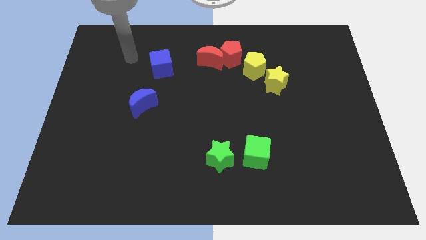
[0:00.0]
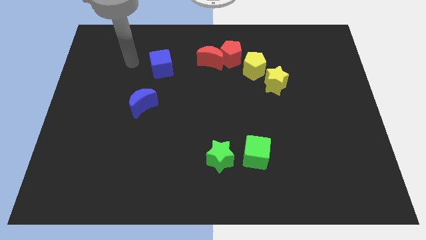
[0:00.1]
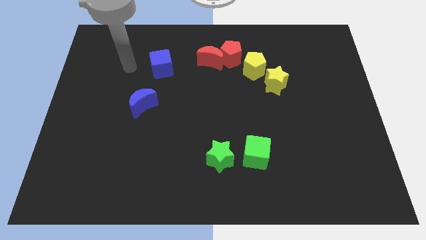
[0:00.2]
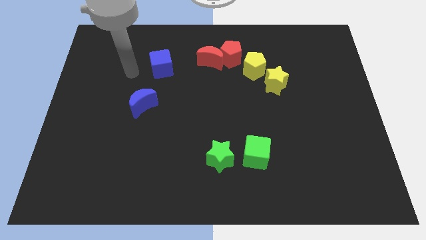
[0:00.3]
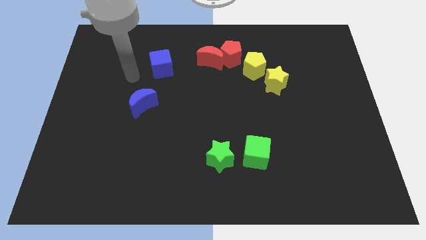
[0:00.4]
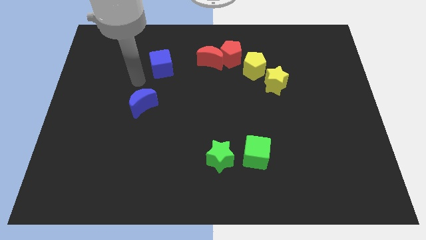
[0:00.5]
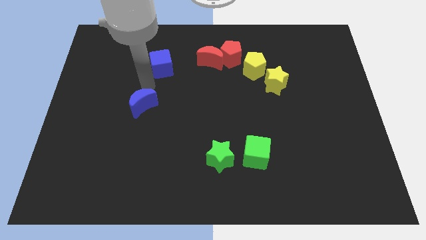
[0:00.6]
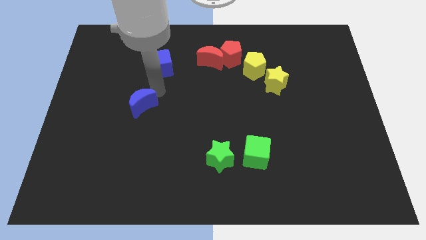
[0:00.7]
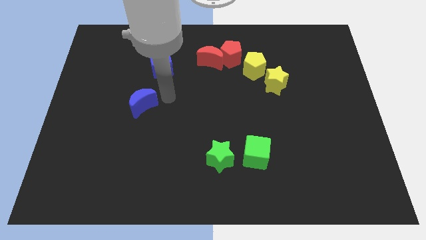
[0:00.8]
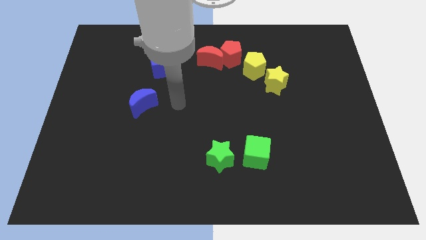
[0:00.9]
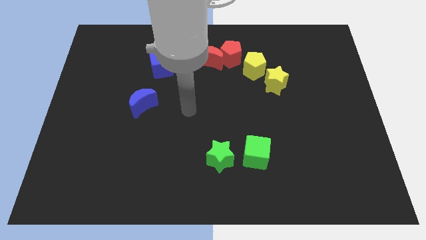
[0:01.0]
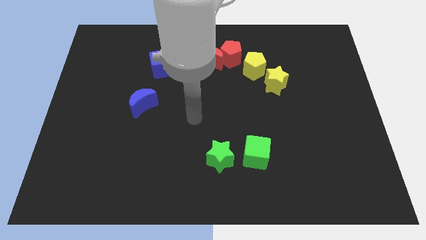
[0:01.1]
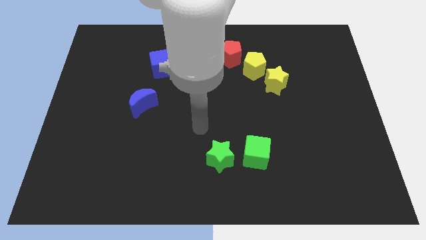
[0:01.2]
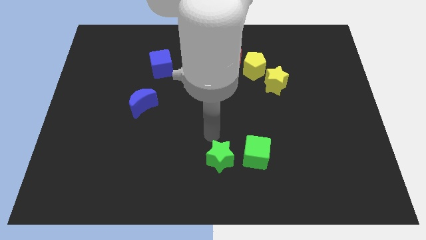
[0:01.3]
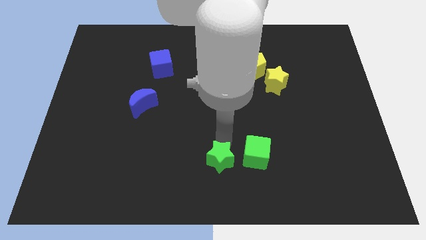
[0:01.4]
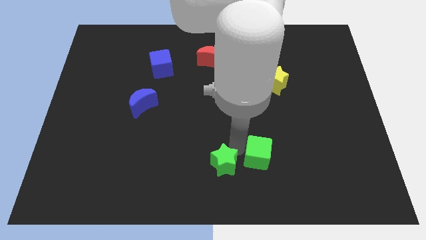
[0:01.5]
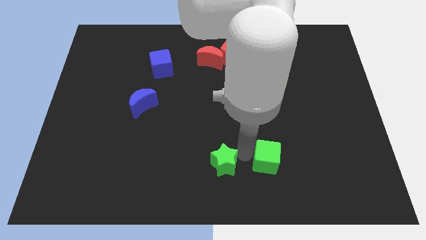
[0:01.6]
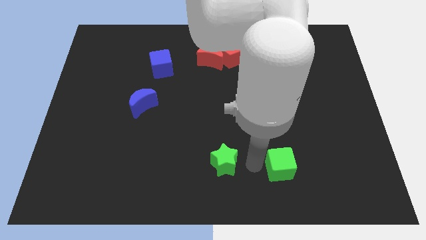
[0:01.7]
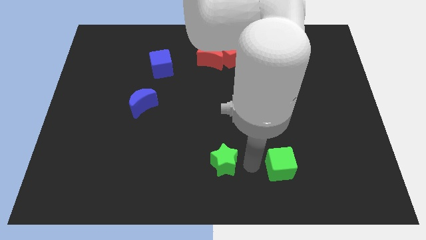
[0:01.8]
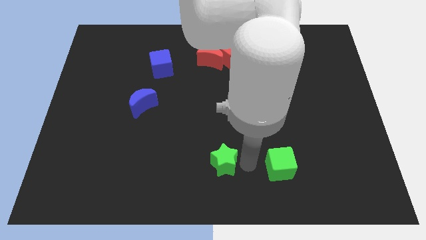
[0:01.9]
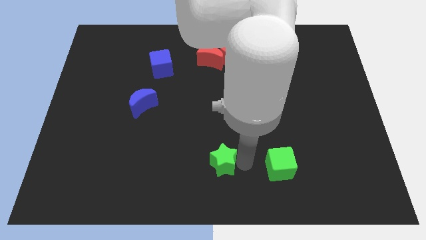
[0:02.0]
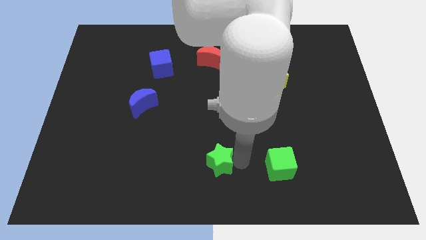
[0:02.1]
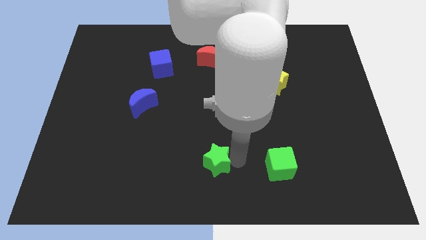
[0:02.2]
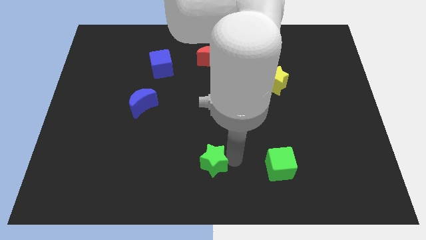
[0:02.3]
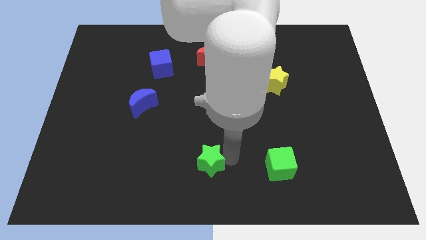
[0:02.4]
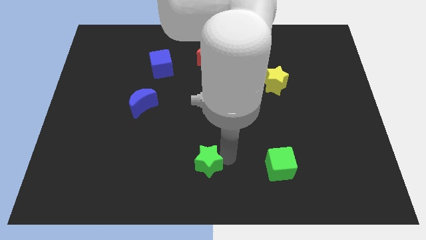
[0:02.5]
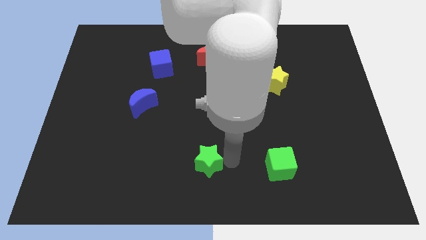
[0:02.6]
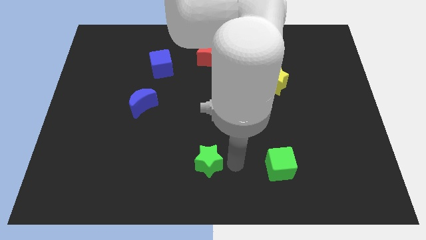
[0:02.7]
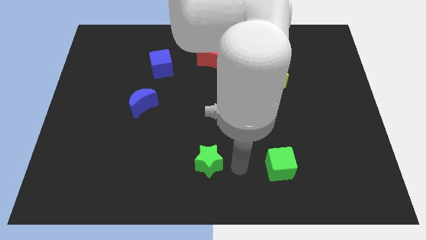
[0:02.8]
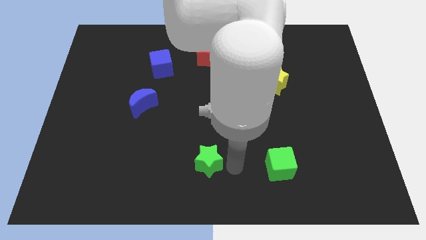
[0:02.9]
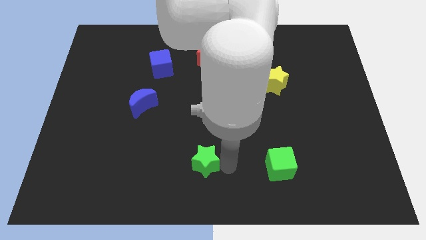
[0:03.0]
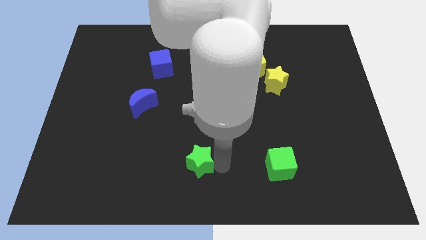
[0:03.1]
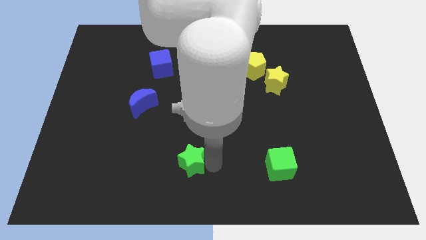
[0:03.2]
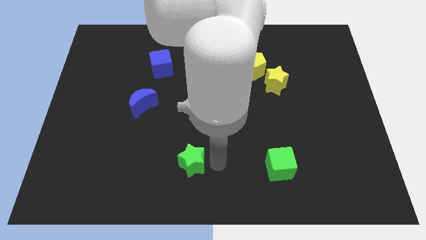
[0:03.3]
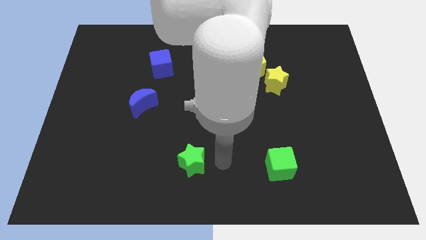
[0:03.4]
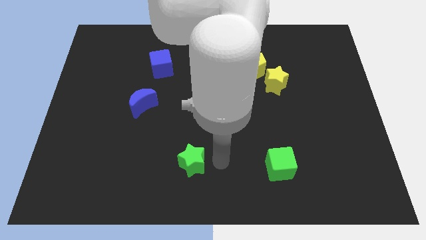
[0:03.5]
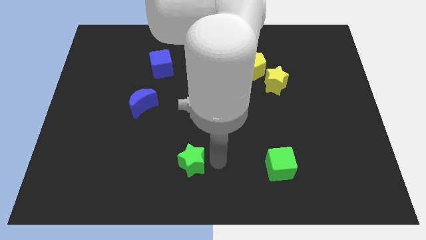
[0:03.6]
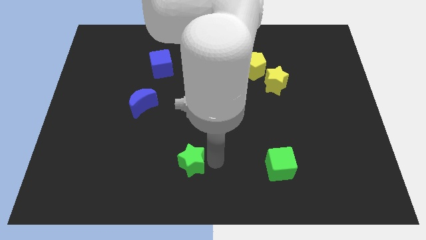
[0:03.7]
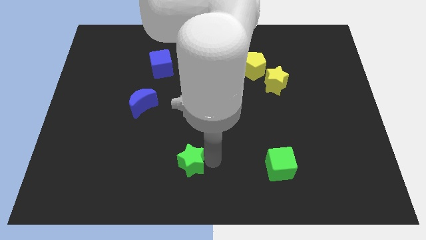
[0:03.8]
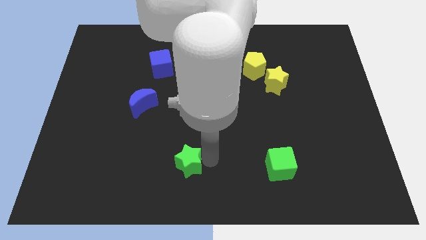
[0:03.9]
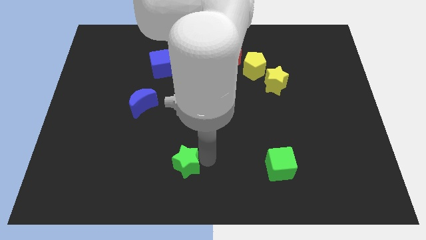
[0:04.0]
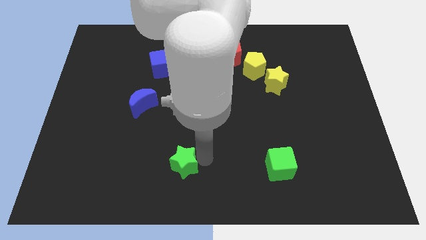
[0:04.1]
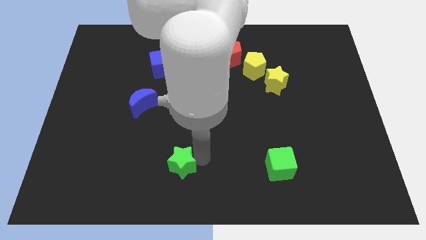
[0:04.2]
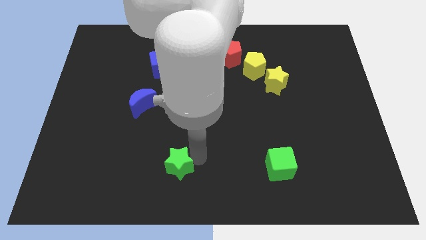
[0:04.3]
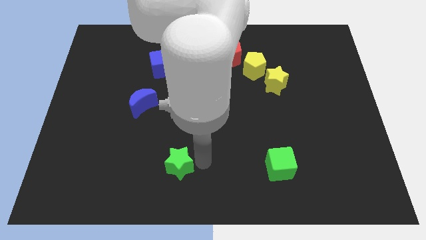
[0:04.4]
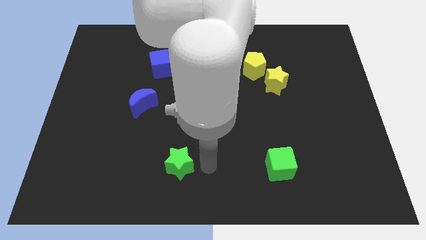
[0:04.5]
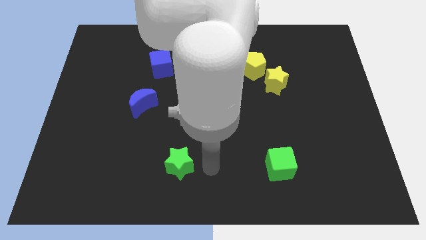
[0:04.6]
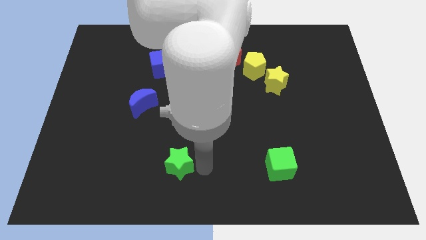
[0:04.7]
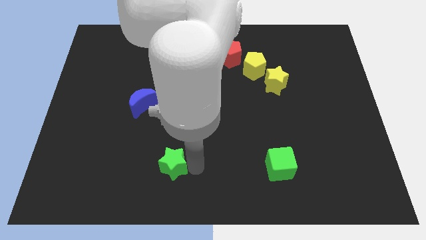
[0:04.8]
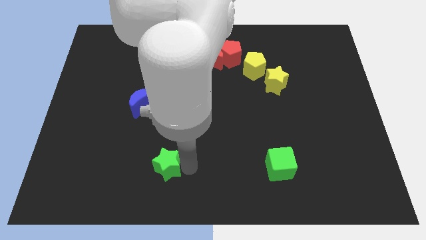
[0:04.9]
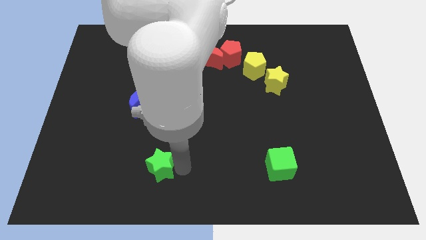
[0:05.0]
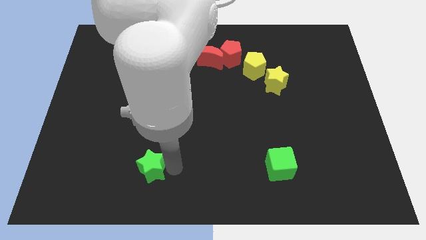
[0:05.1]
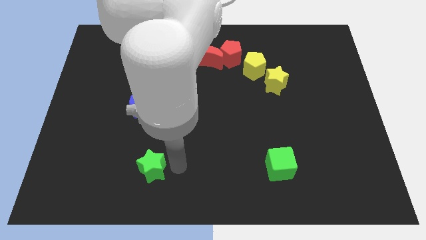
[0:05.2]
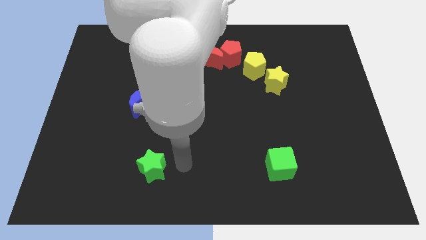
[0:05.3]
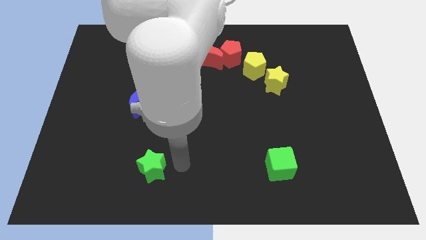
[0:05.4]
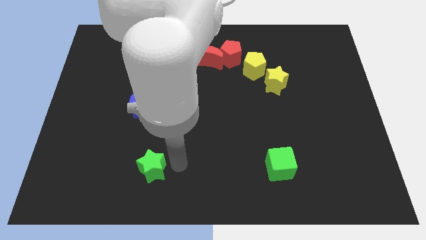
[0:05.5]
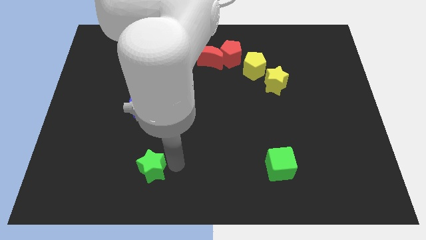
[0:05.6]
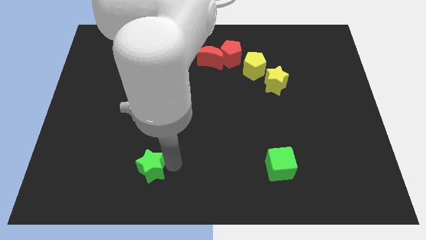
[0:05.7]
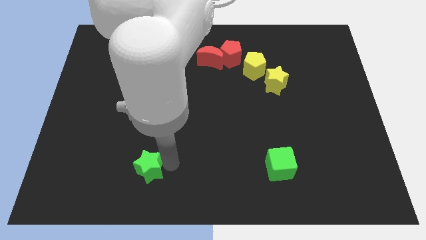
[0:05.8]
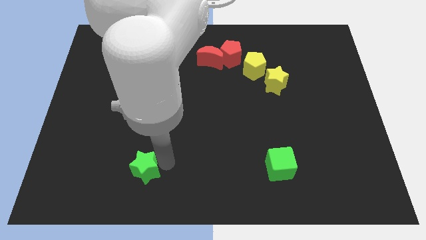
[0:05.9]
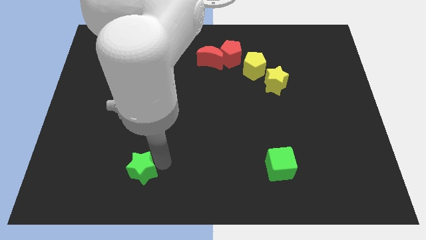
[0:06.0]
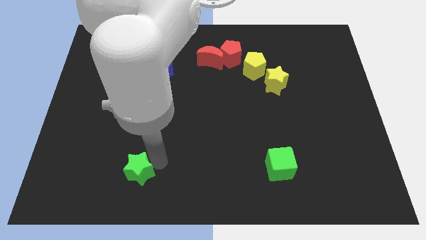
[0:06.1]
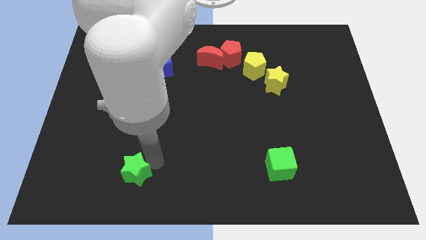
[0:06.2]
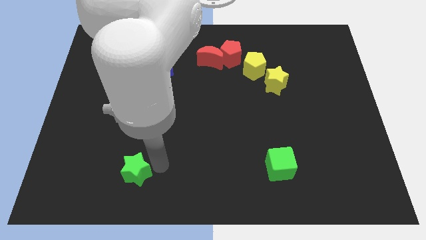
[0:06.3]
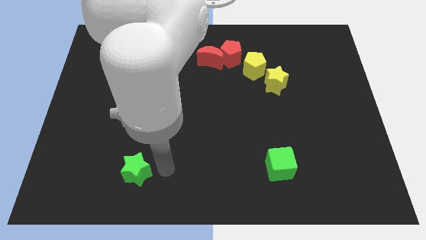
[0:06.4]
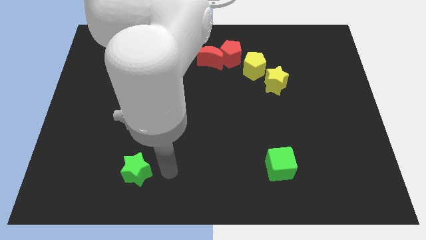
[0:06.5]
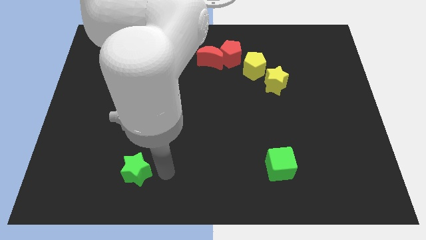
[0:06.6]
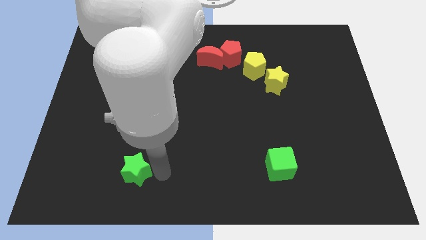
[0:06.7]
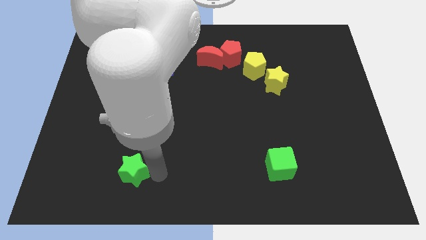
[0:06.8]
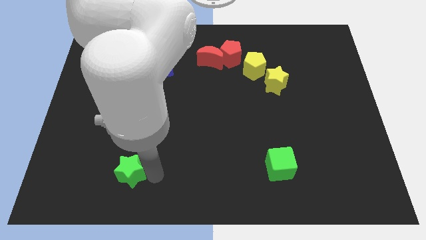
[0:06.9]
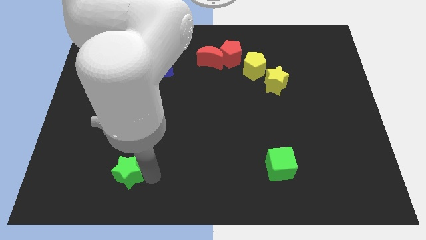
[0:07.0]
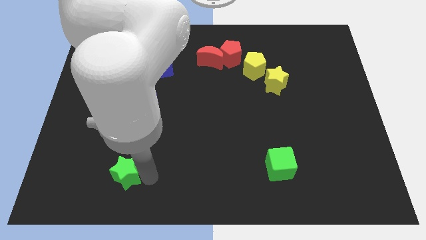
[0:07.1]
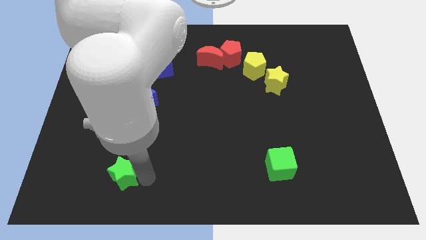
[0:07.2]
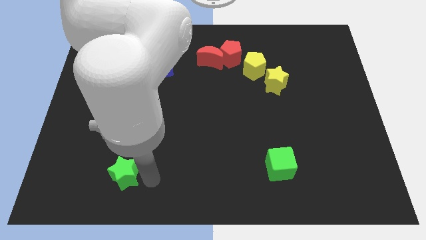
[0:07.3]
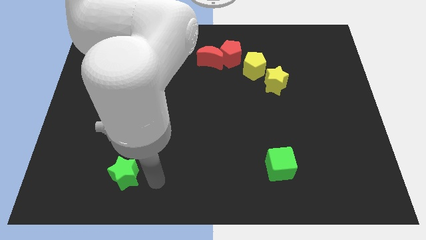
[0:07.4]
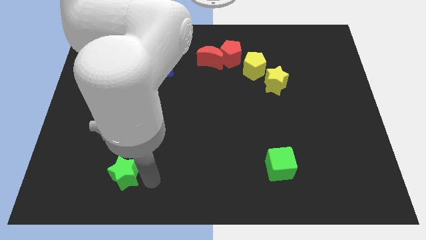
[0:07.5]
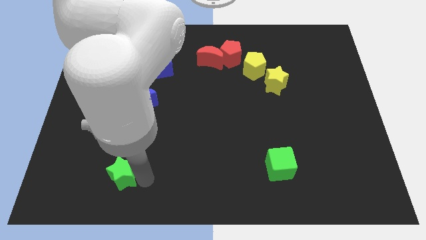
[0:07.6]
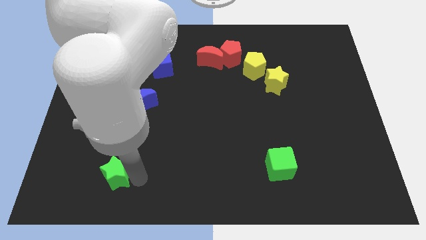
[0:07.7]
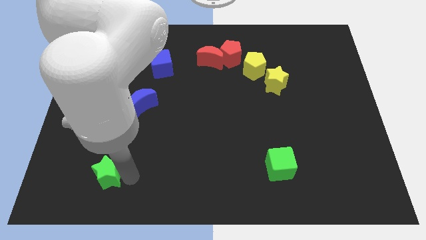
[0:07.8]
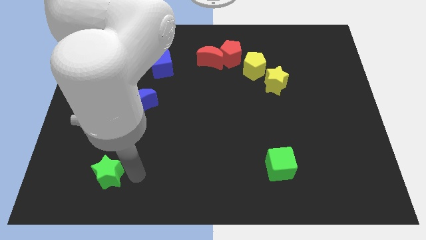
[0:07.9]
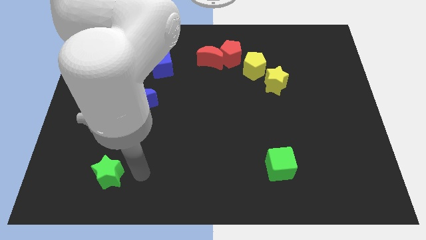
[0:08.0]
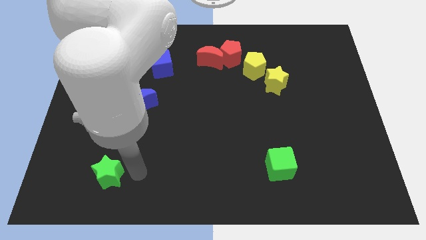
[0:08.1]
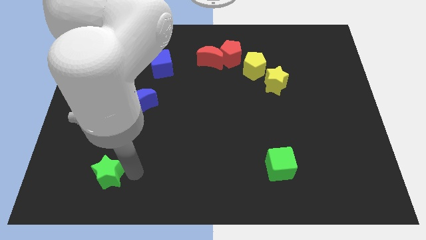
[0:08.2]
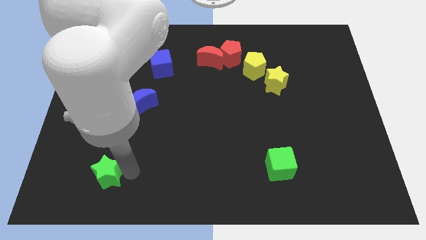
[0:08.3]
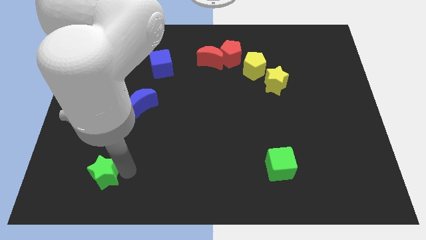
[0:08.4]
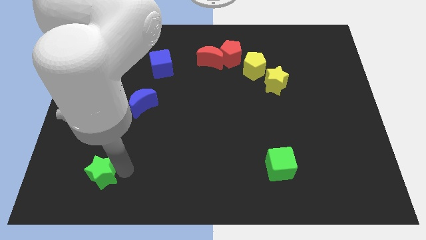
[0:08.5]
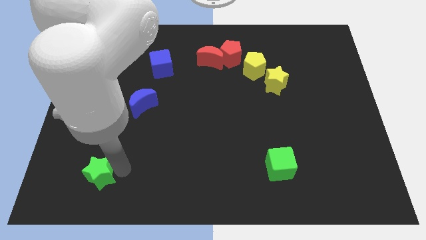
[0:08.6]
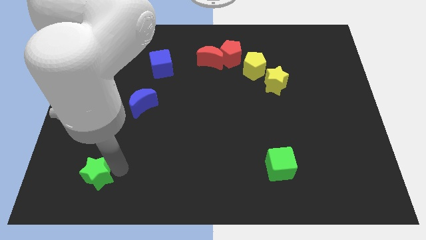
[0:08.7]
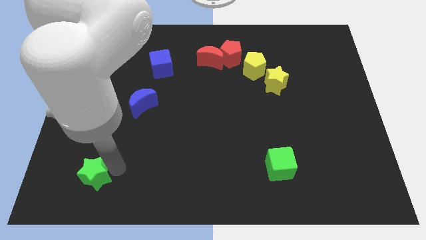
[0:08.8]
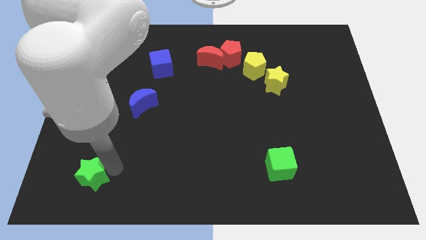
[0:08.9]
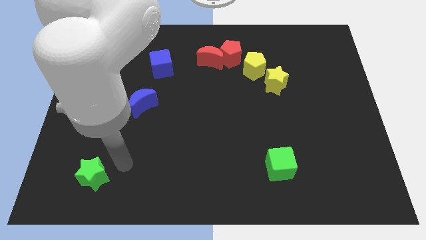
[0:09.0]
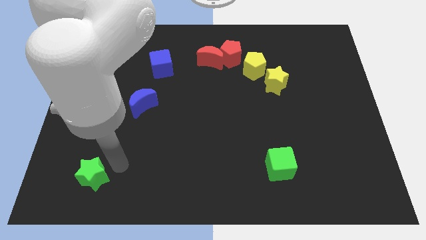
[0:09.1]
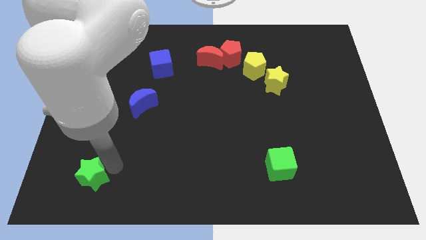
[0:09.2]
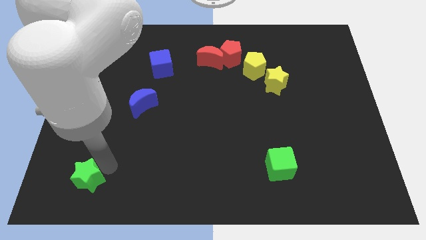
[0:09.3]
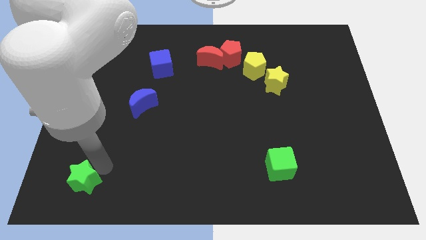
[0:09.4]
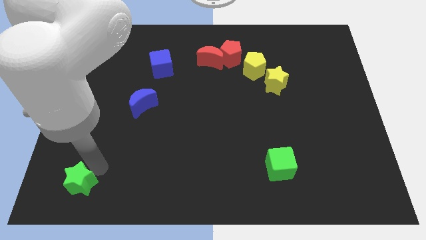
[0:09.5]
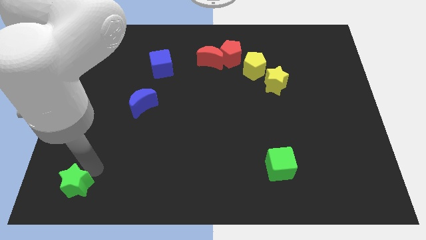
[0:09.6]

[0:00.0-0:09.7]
slide the green star to the bottom left of the board
